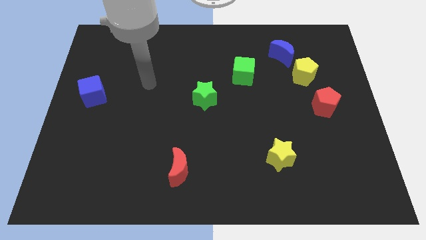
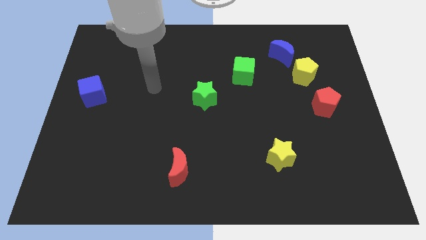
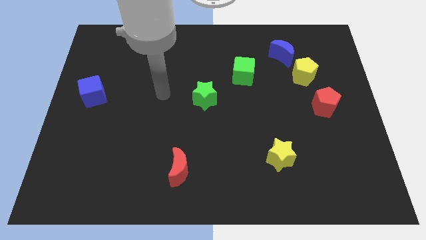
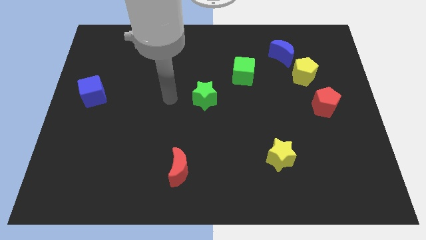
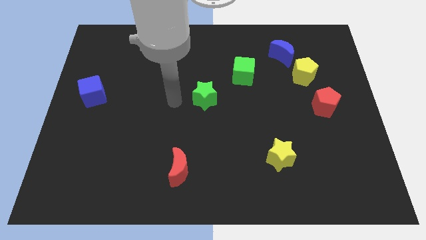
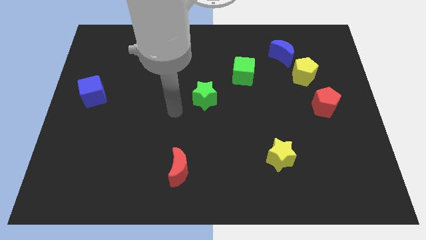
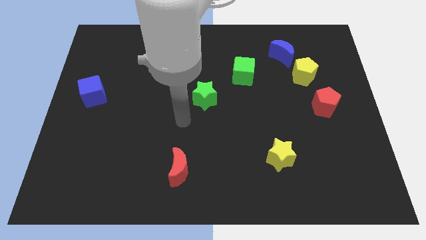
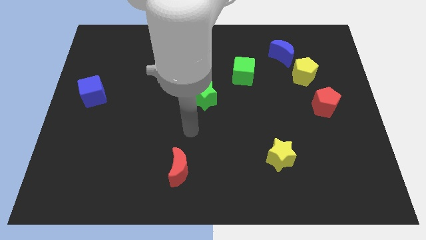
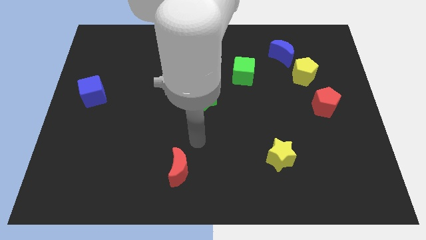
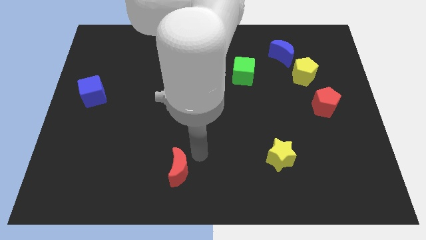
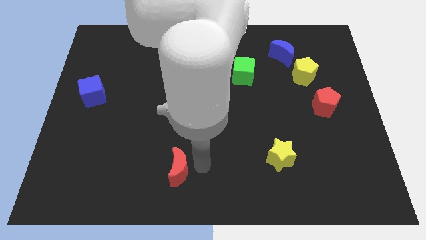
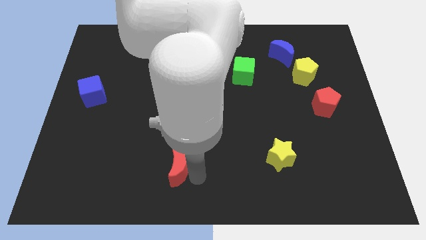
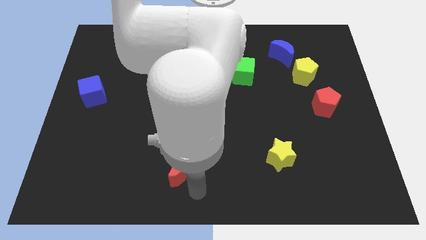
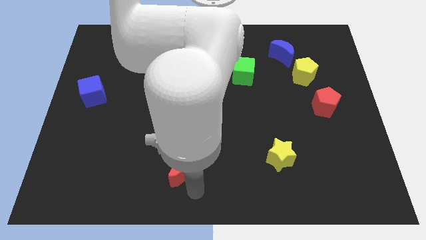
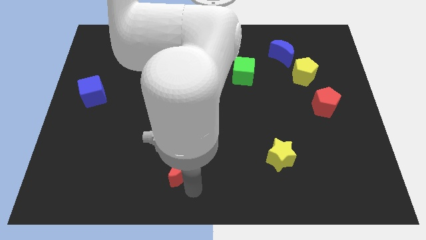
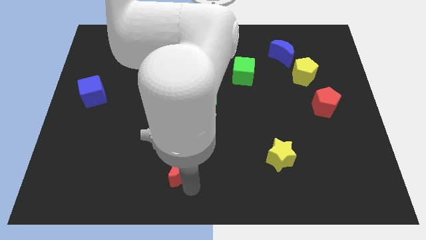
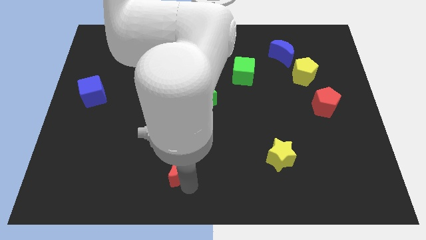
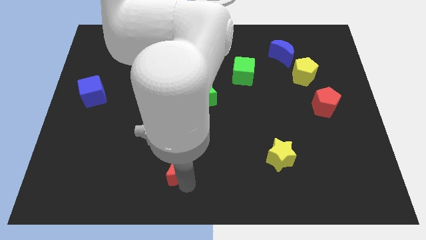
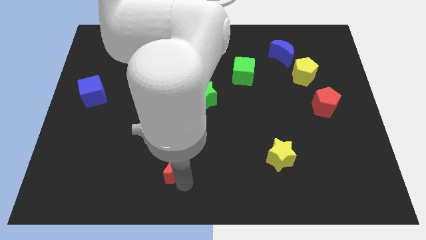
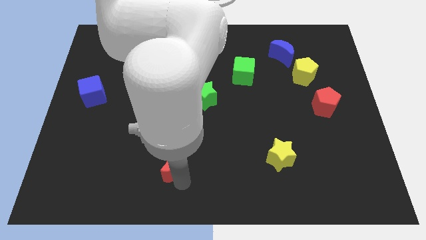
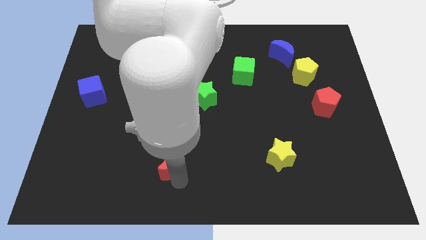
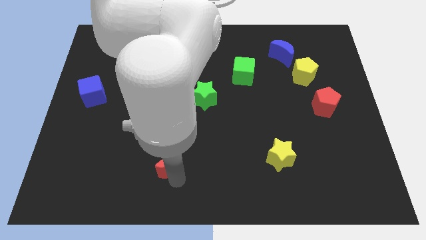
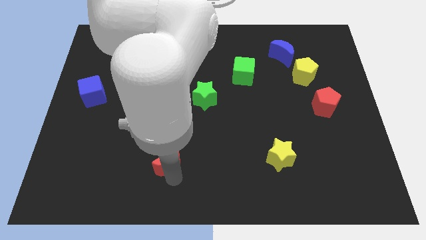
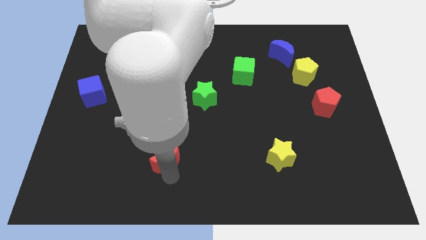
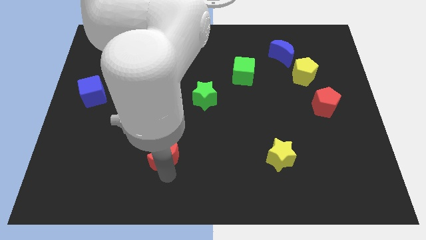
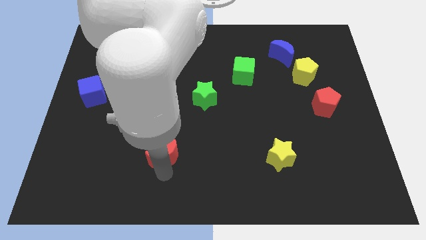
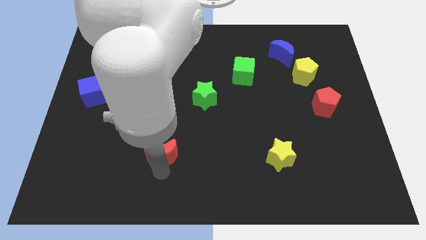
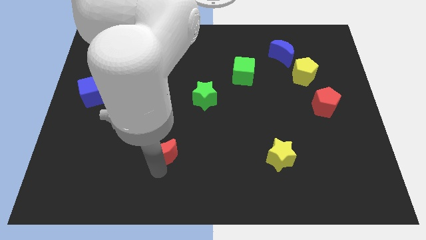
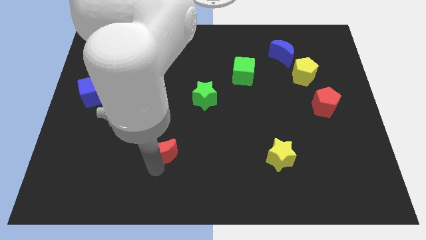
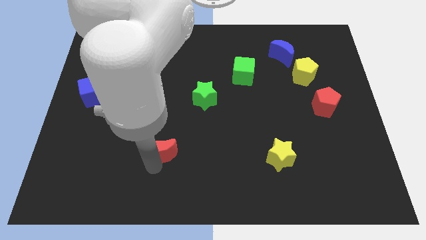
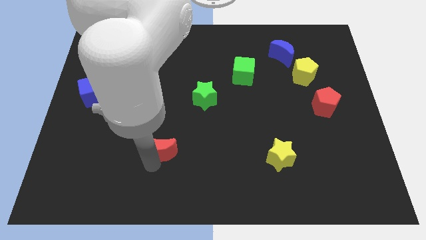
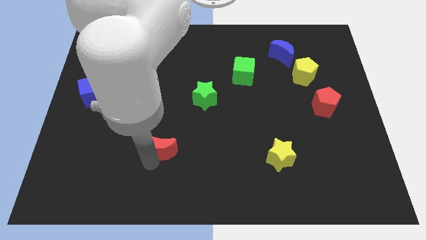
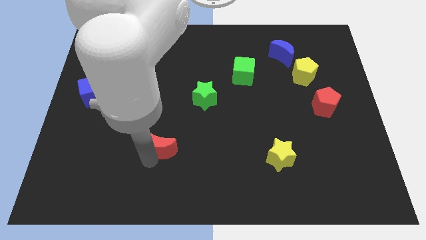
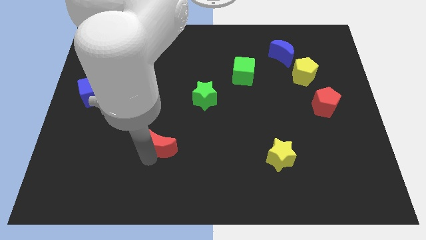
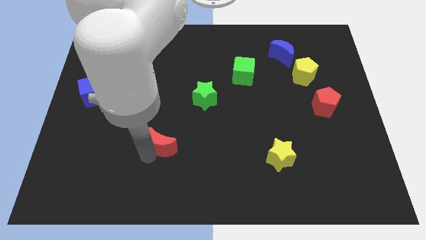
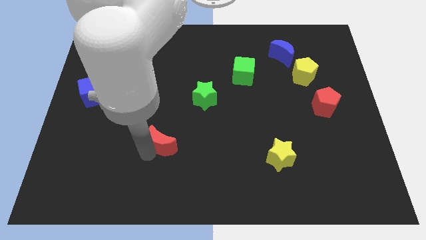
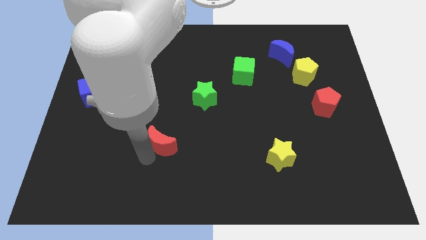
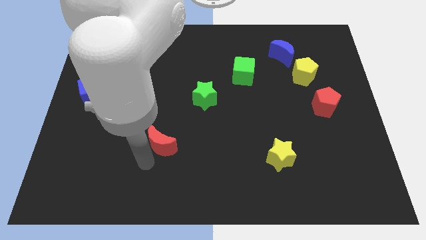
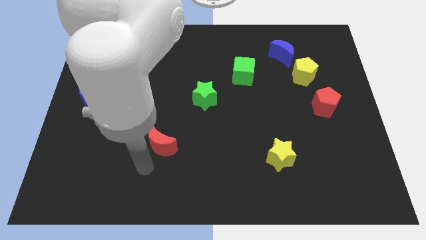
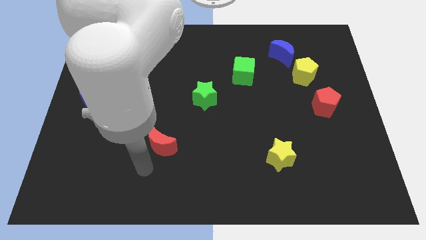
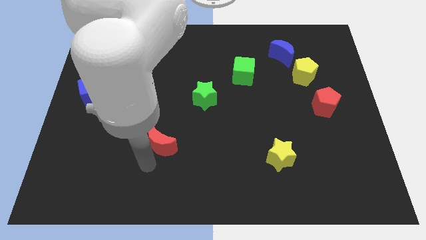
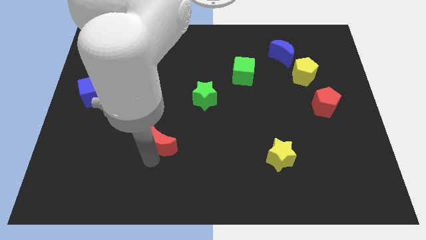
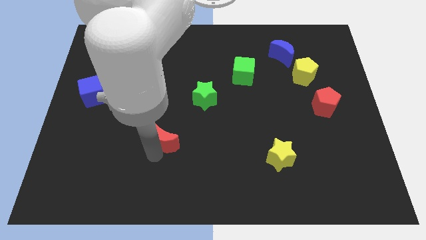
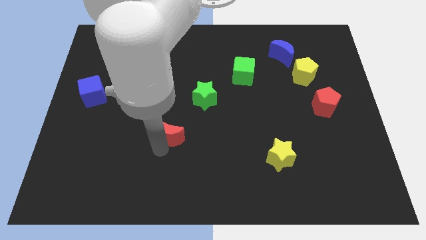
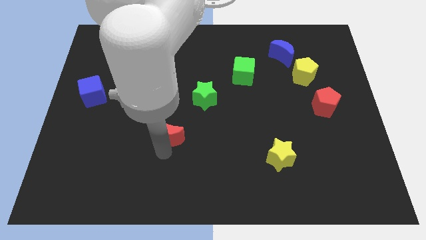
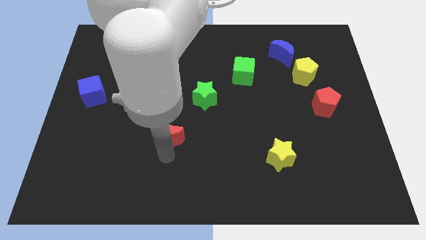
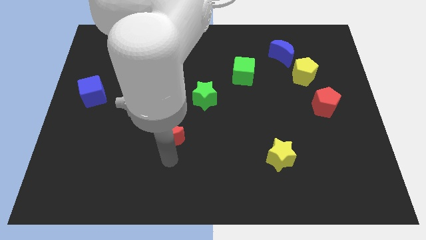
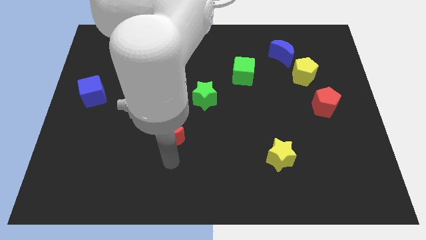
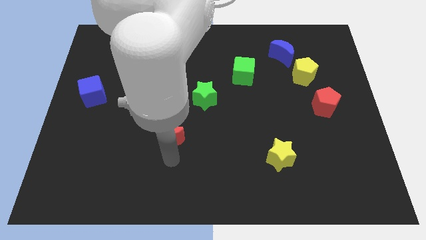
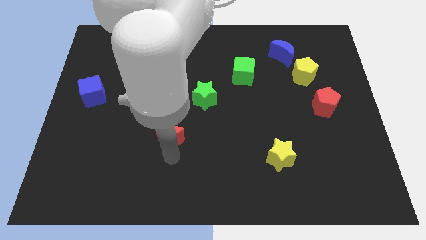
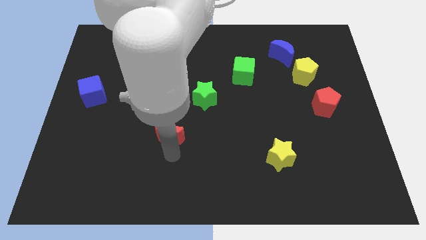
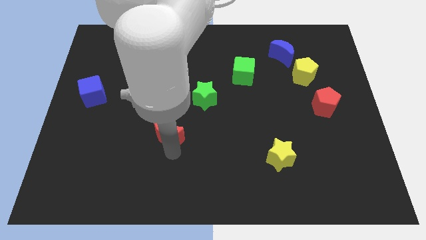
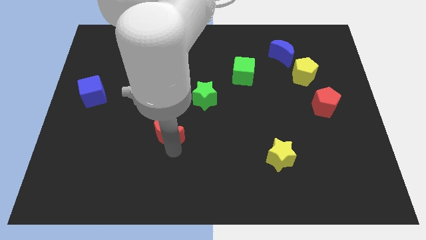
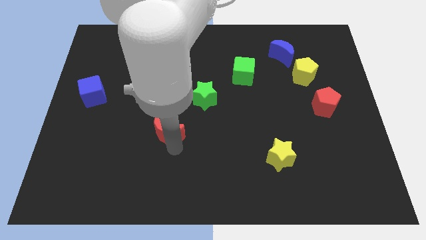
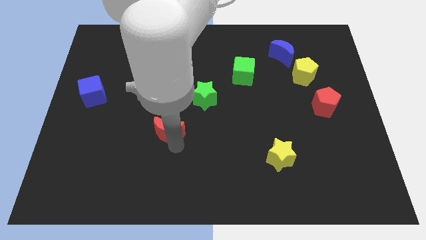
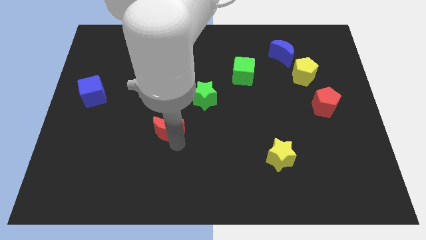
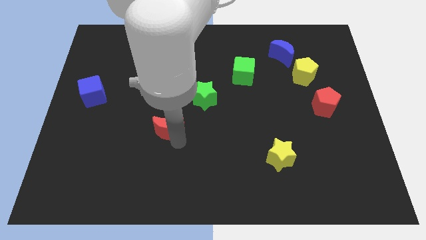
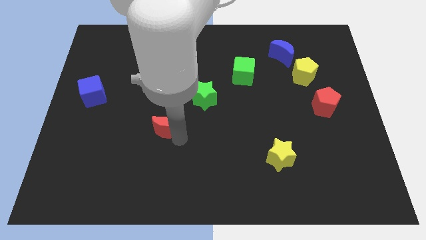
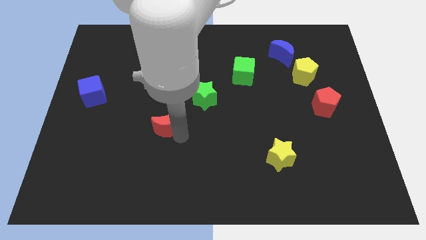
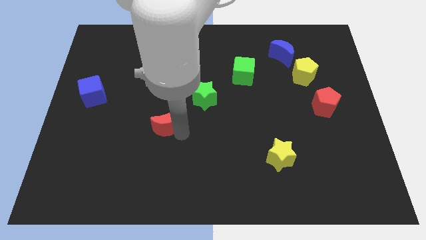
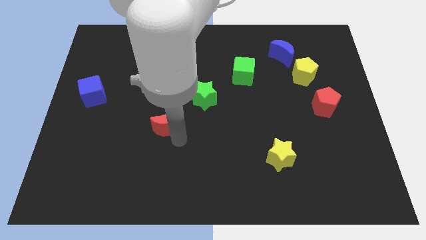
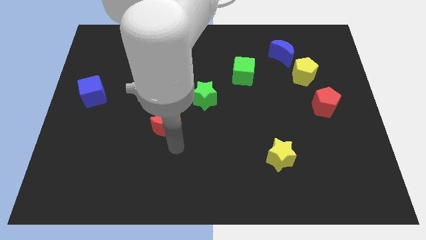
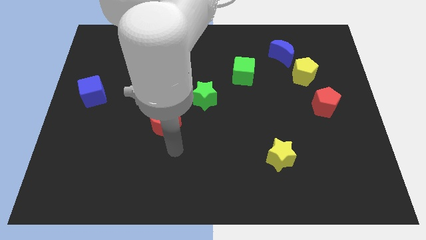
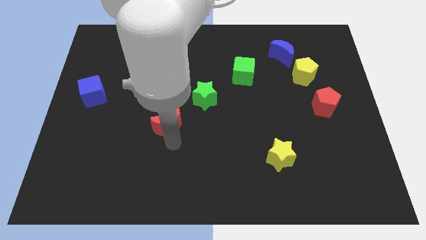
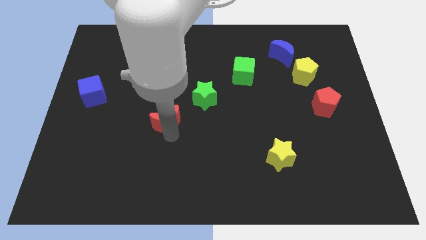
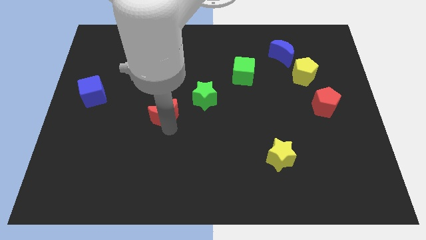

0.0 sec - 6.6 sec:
slide the red moon left of the green star
